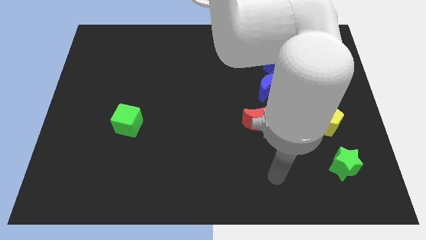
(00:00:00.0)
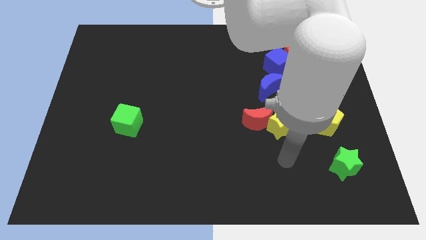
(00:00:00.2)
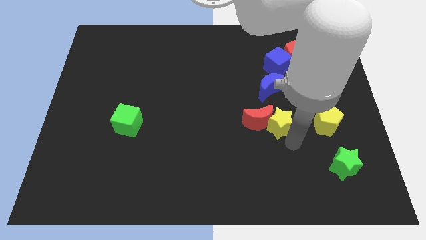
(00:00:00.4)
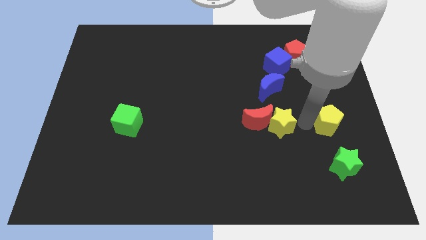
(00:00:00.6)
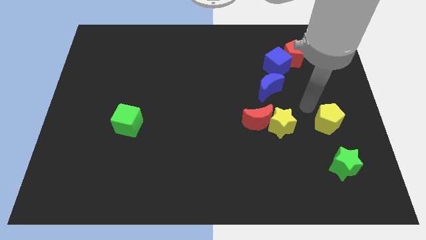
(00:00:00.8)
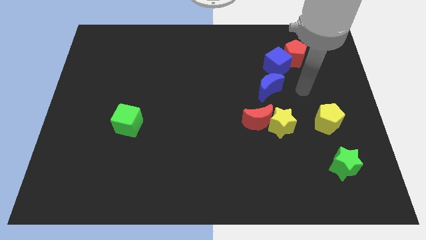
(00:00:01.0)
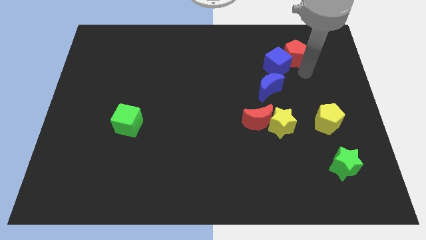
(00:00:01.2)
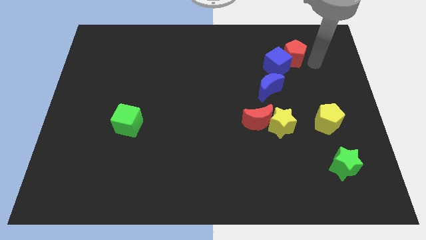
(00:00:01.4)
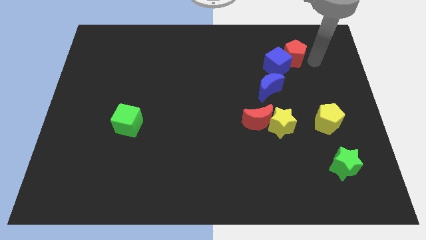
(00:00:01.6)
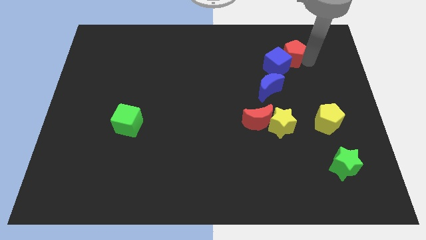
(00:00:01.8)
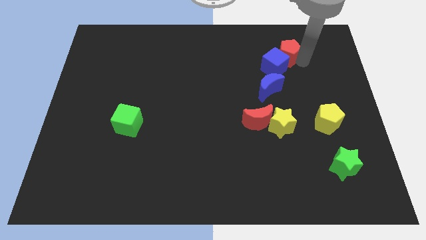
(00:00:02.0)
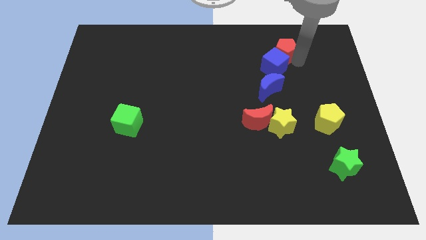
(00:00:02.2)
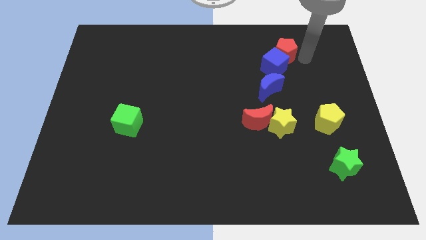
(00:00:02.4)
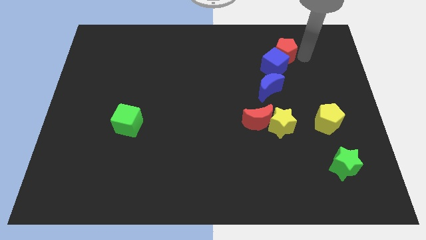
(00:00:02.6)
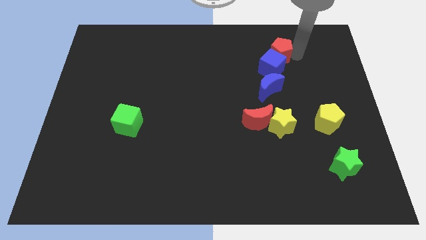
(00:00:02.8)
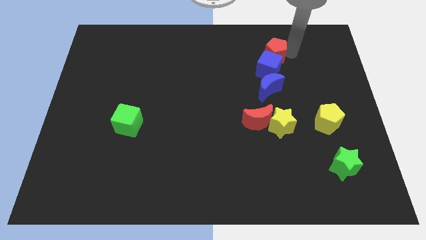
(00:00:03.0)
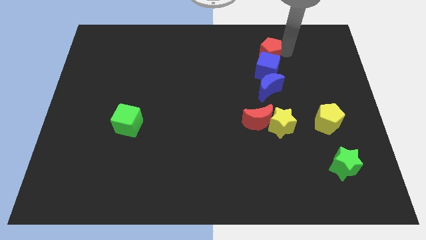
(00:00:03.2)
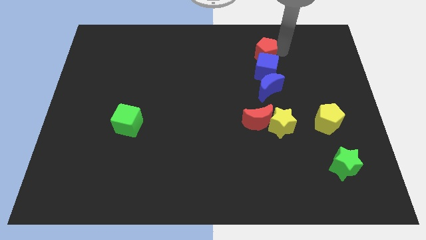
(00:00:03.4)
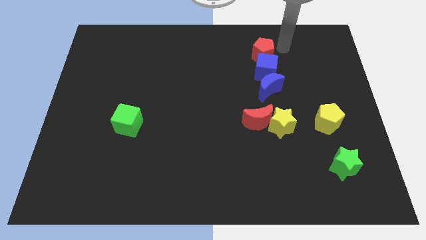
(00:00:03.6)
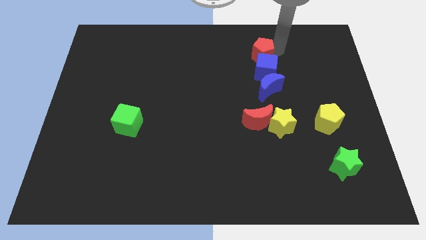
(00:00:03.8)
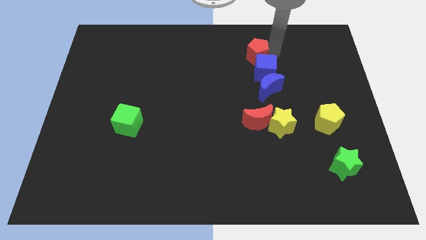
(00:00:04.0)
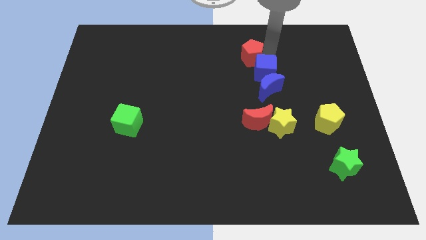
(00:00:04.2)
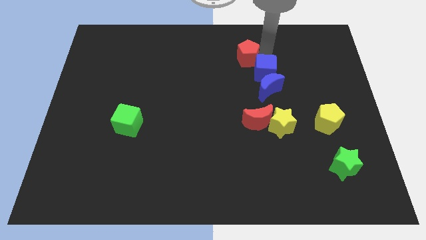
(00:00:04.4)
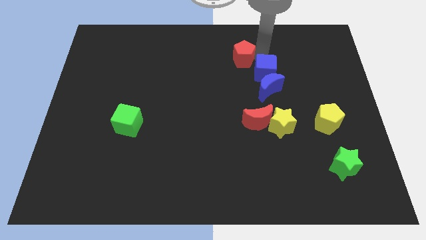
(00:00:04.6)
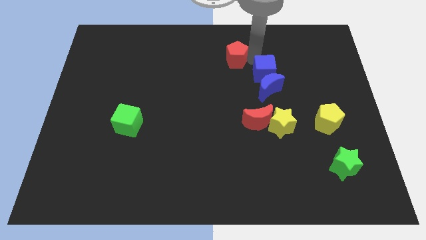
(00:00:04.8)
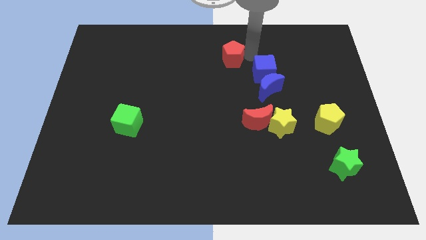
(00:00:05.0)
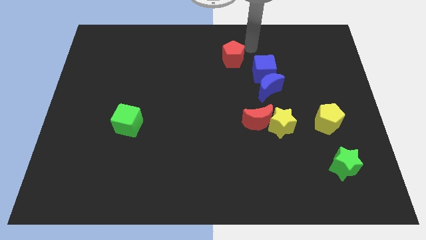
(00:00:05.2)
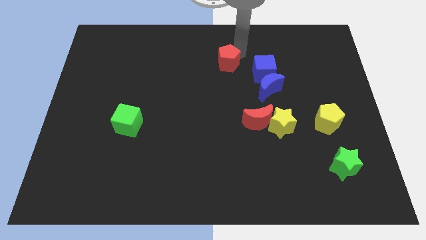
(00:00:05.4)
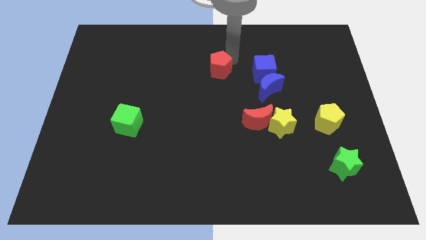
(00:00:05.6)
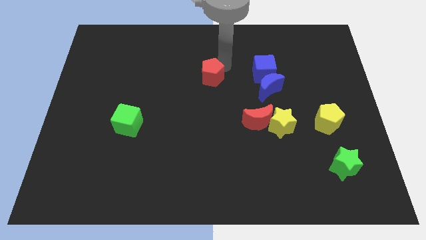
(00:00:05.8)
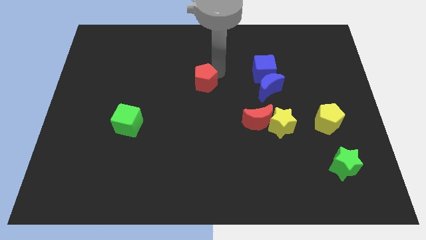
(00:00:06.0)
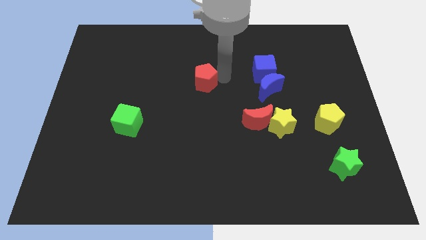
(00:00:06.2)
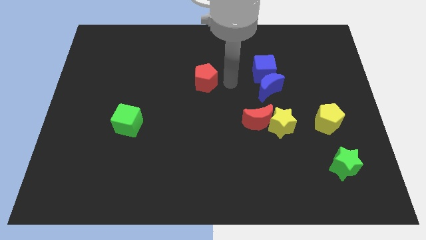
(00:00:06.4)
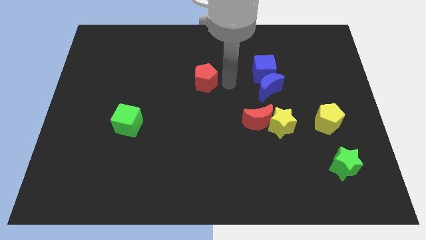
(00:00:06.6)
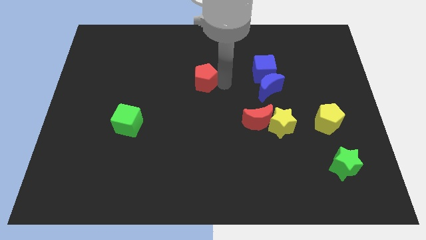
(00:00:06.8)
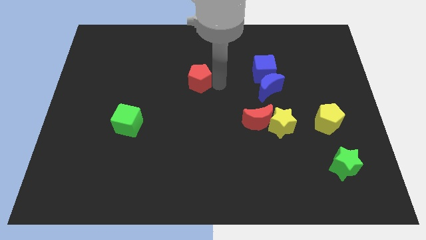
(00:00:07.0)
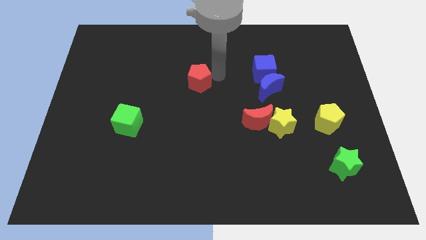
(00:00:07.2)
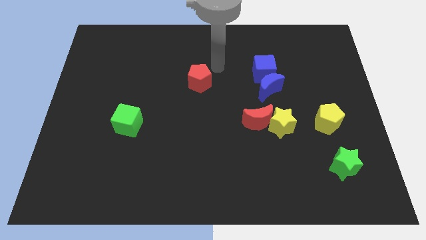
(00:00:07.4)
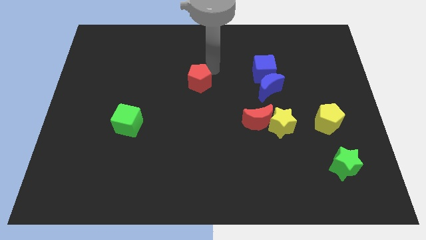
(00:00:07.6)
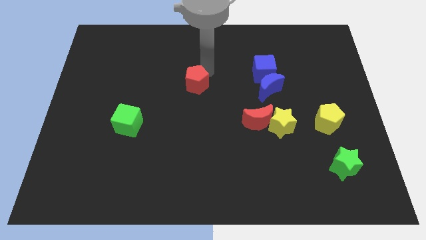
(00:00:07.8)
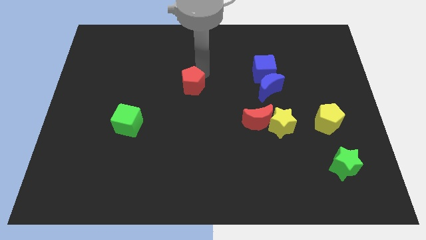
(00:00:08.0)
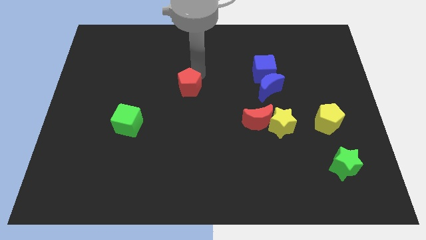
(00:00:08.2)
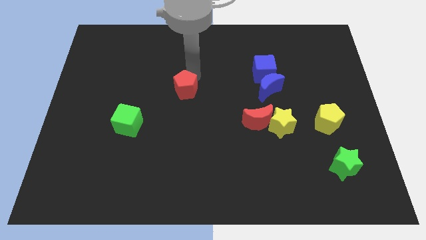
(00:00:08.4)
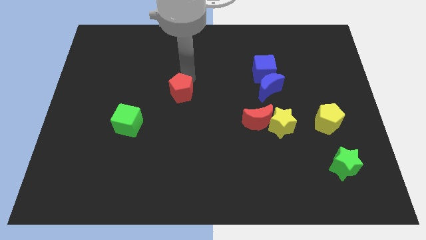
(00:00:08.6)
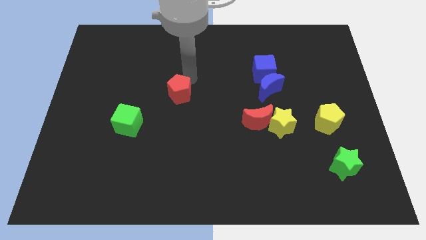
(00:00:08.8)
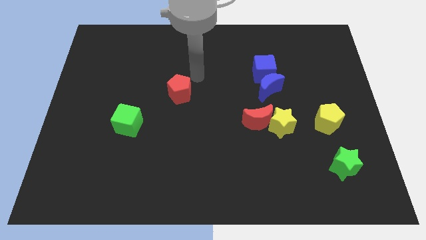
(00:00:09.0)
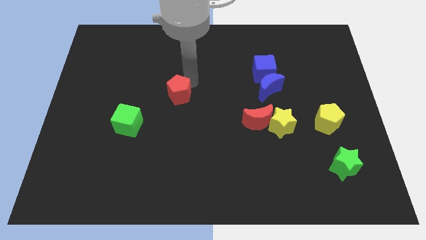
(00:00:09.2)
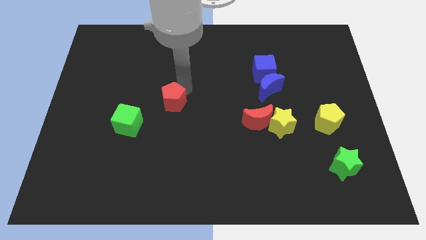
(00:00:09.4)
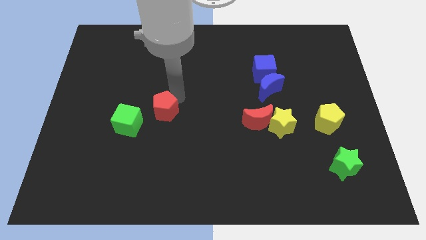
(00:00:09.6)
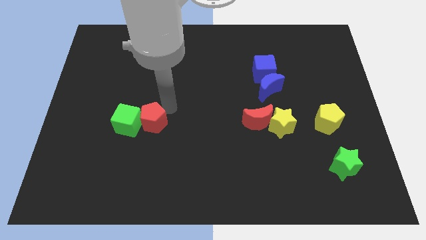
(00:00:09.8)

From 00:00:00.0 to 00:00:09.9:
slide the red pentagon to the green cube

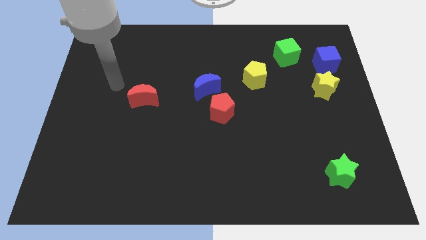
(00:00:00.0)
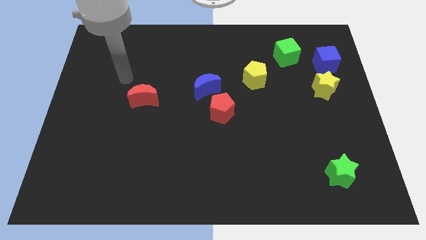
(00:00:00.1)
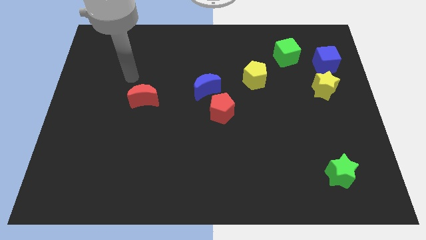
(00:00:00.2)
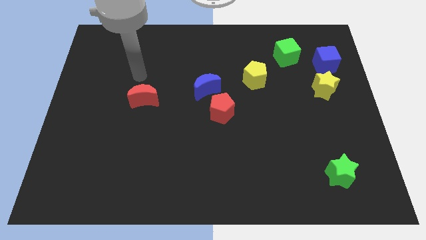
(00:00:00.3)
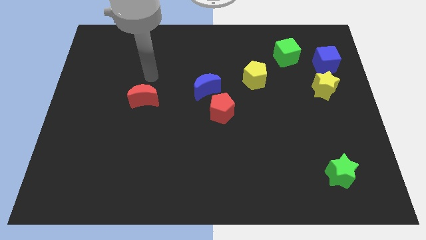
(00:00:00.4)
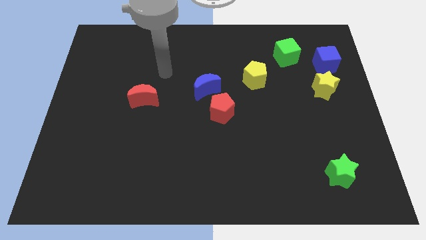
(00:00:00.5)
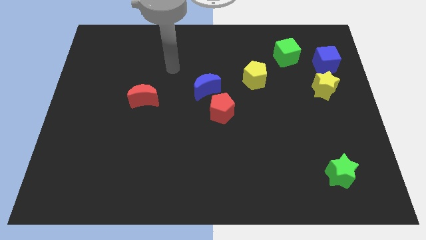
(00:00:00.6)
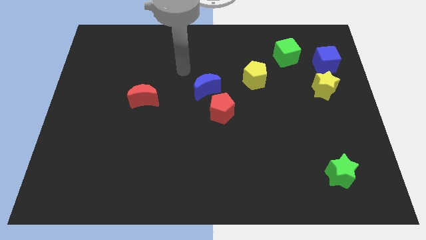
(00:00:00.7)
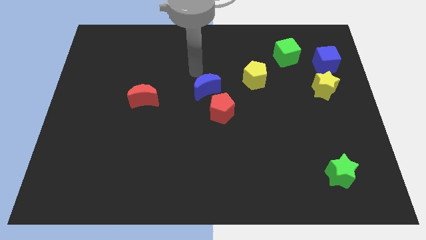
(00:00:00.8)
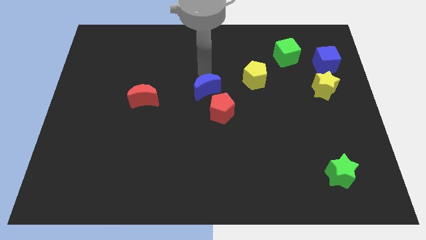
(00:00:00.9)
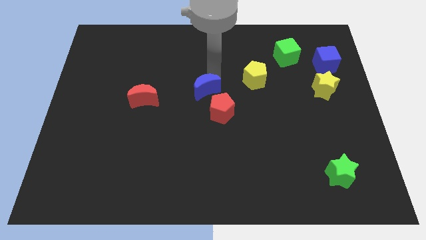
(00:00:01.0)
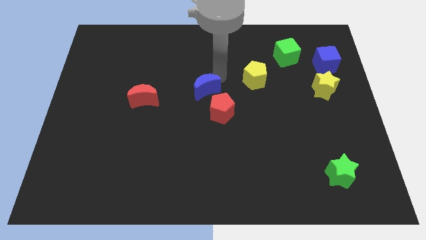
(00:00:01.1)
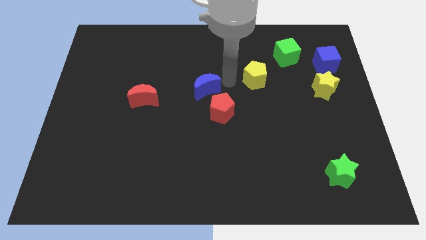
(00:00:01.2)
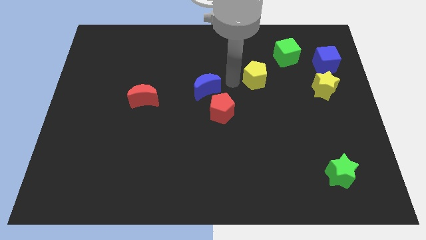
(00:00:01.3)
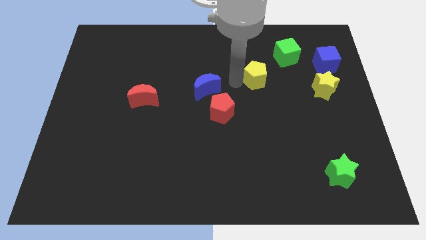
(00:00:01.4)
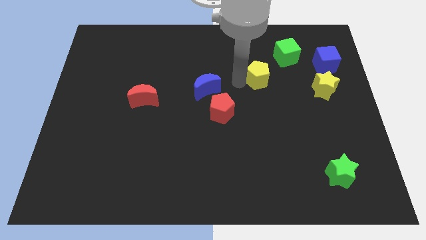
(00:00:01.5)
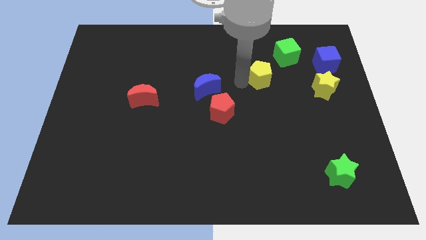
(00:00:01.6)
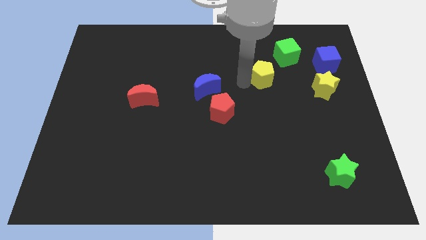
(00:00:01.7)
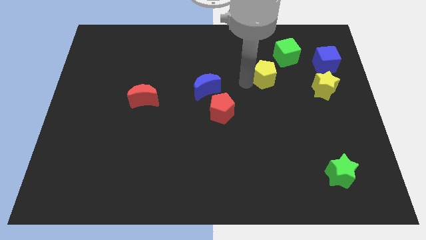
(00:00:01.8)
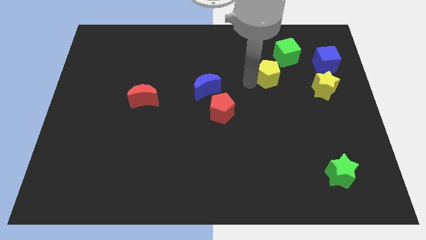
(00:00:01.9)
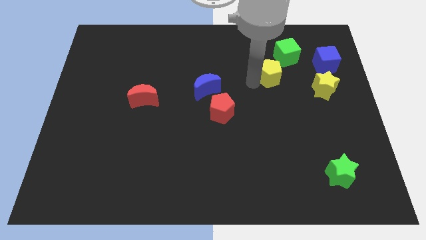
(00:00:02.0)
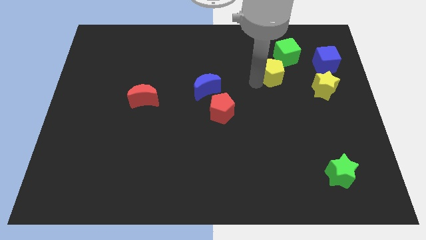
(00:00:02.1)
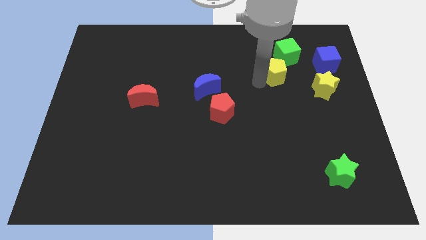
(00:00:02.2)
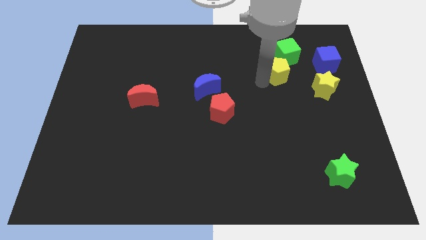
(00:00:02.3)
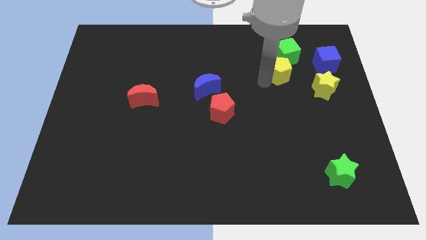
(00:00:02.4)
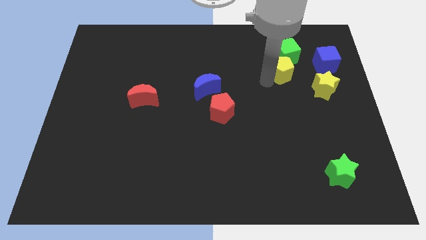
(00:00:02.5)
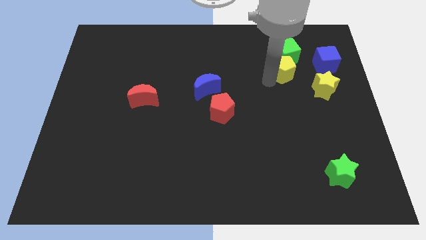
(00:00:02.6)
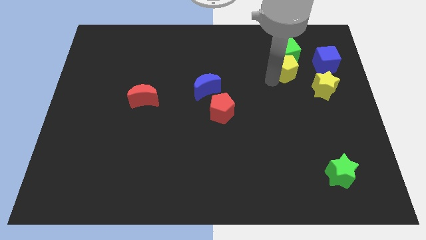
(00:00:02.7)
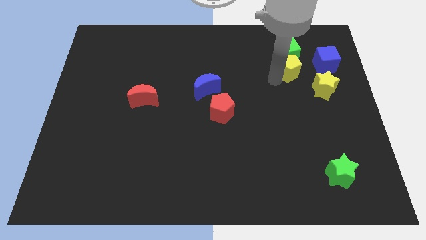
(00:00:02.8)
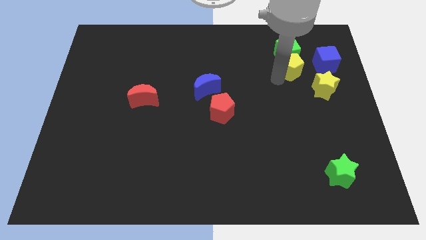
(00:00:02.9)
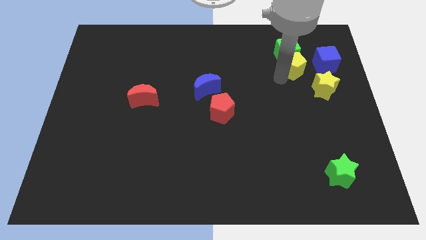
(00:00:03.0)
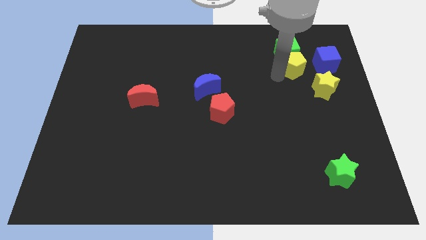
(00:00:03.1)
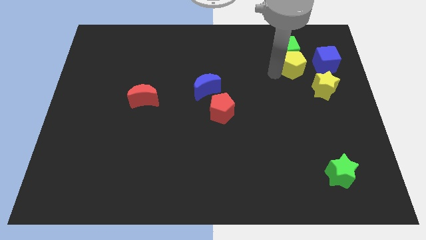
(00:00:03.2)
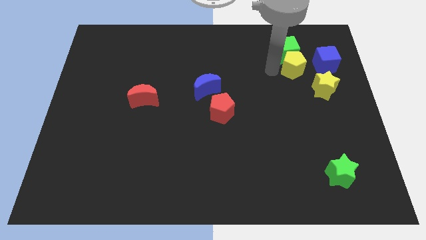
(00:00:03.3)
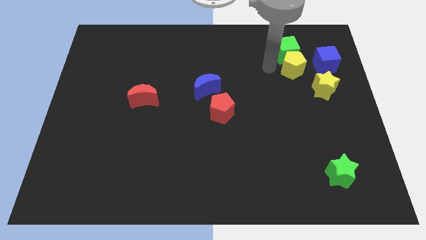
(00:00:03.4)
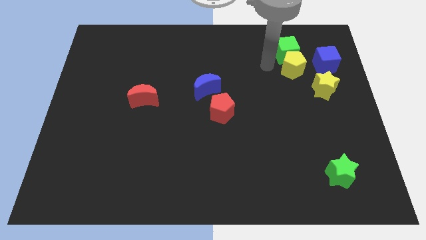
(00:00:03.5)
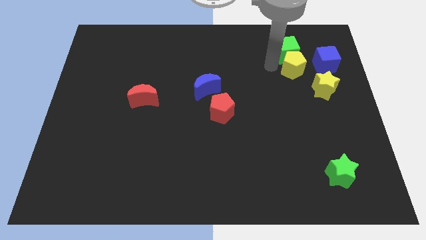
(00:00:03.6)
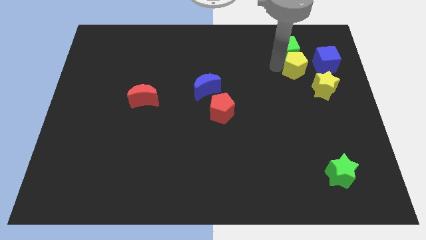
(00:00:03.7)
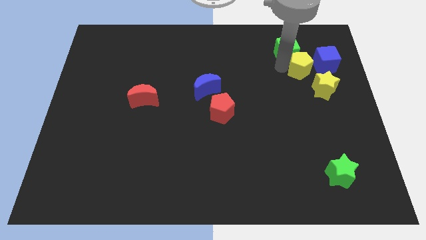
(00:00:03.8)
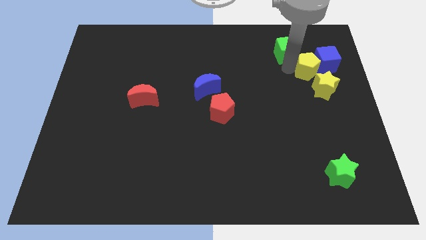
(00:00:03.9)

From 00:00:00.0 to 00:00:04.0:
push the yellow pentagon close to the blue cube
